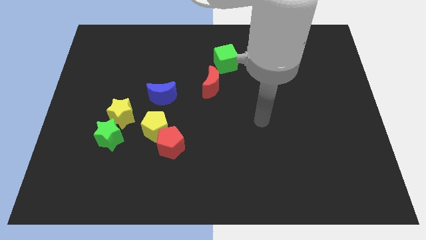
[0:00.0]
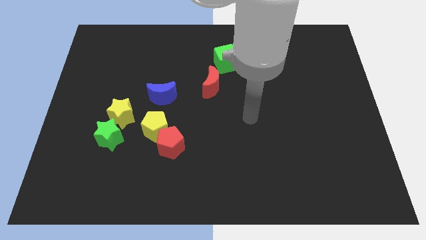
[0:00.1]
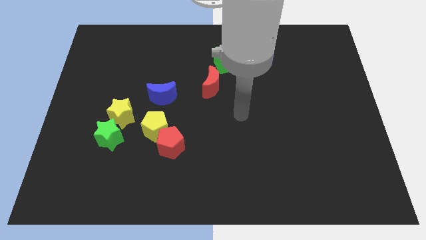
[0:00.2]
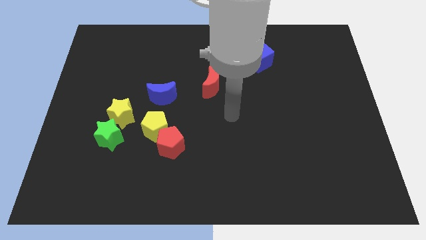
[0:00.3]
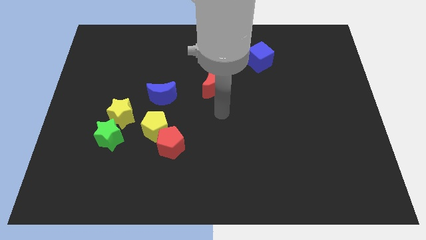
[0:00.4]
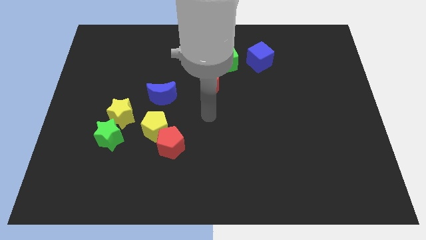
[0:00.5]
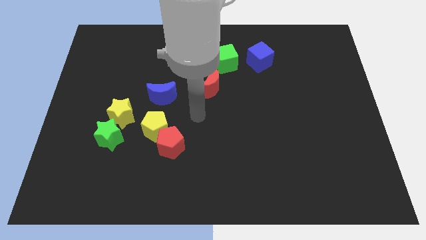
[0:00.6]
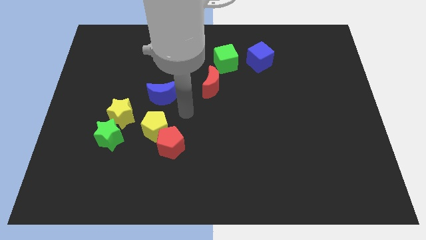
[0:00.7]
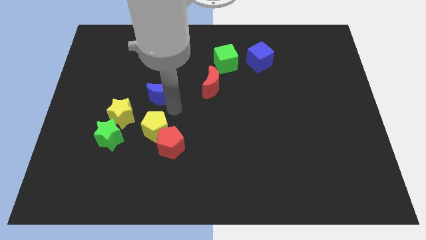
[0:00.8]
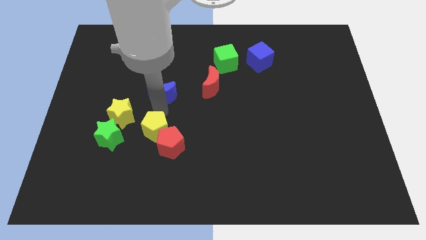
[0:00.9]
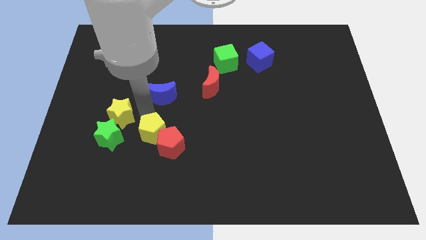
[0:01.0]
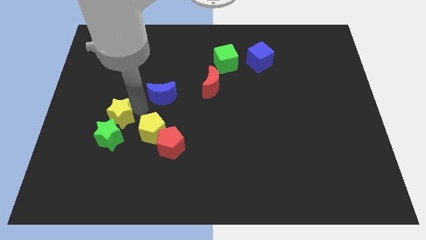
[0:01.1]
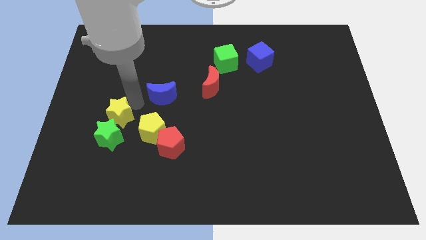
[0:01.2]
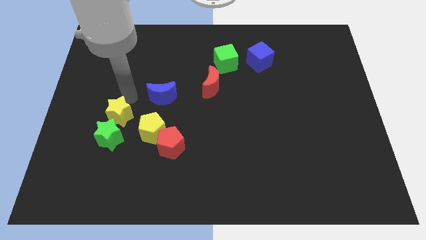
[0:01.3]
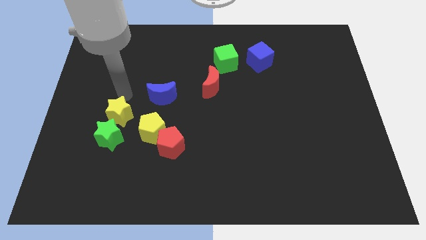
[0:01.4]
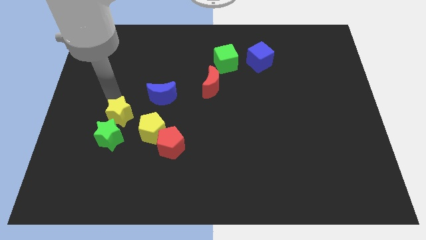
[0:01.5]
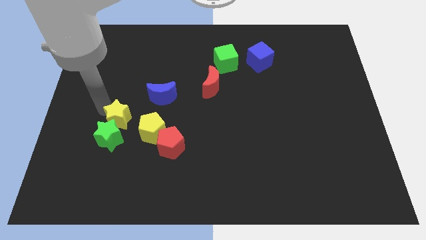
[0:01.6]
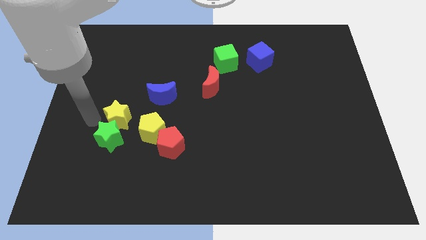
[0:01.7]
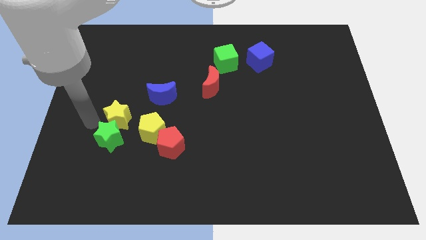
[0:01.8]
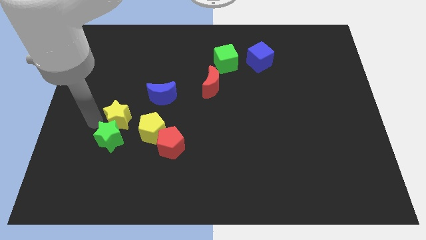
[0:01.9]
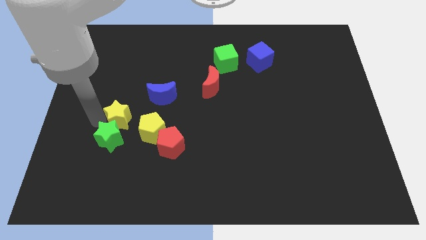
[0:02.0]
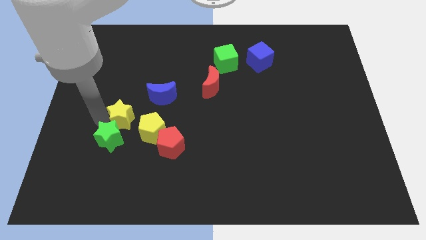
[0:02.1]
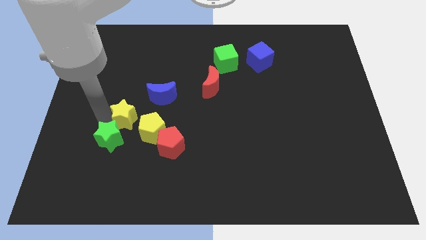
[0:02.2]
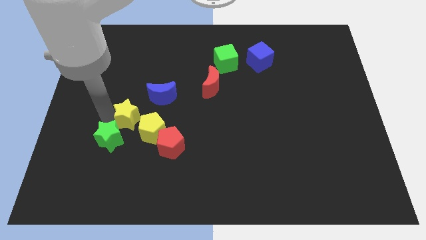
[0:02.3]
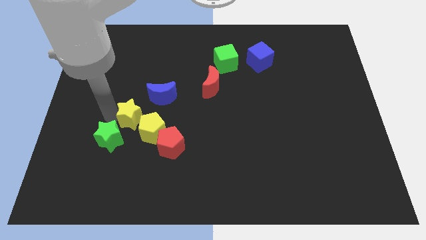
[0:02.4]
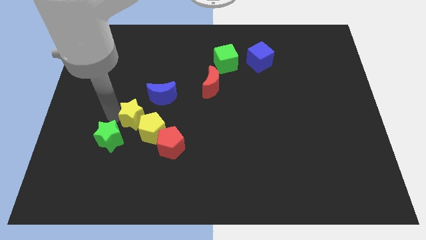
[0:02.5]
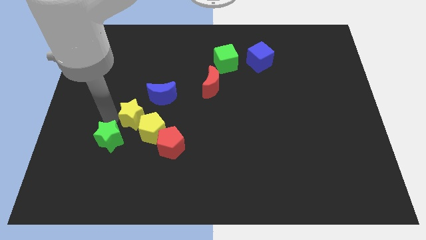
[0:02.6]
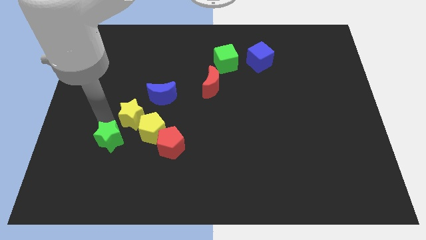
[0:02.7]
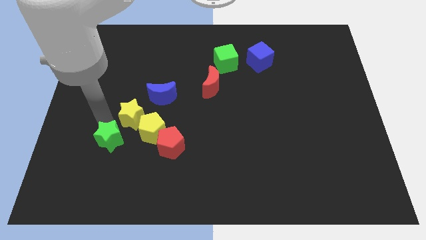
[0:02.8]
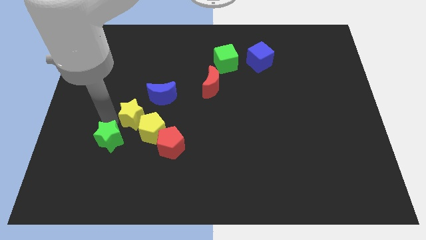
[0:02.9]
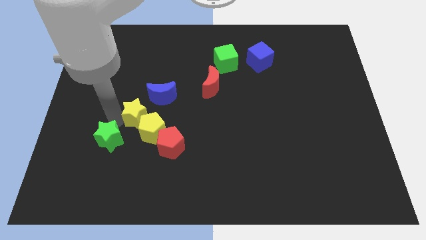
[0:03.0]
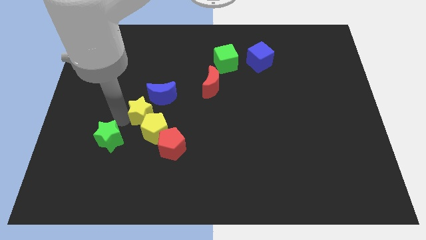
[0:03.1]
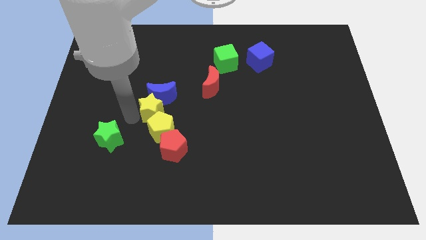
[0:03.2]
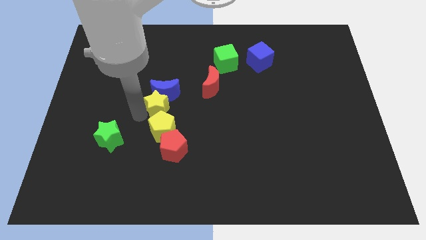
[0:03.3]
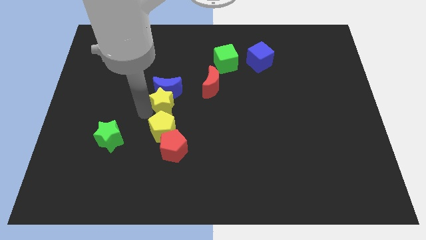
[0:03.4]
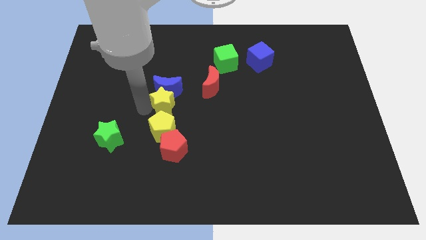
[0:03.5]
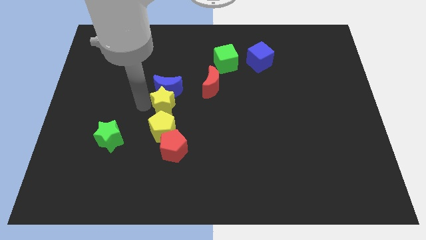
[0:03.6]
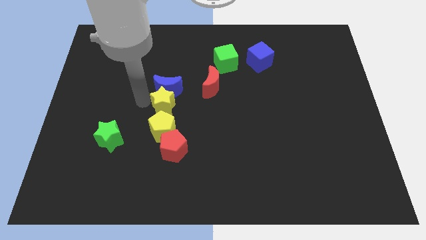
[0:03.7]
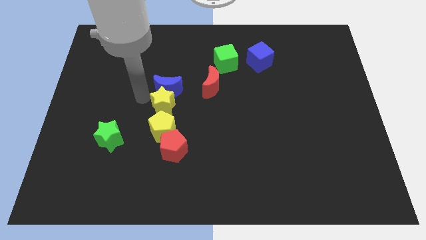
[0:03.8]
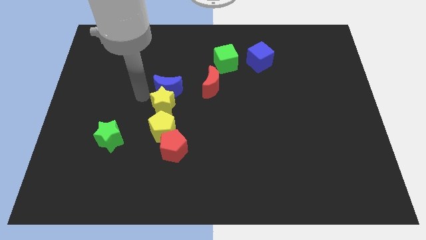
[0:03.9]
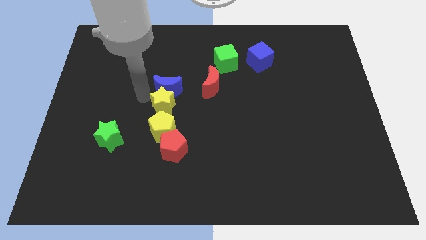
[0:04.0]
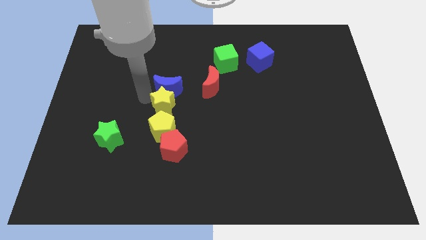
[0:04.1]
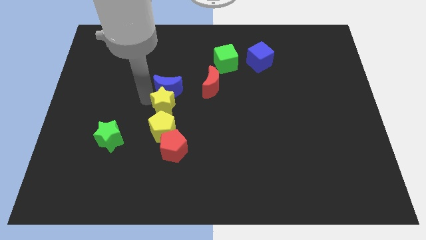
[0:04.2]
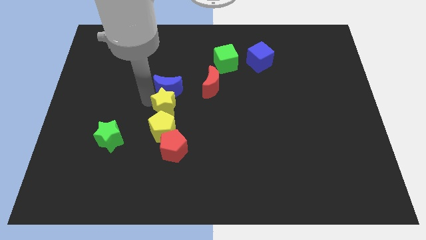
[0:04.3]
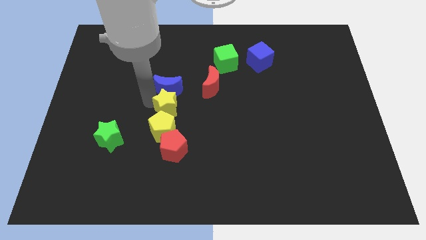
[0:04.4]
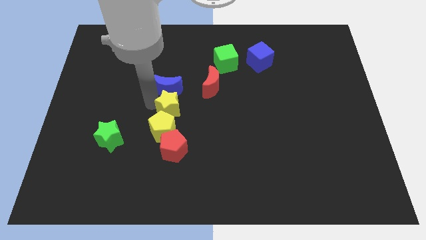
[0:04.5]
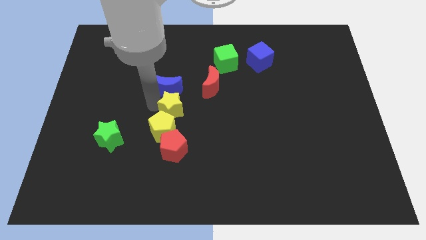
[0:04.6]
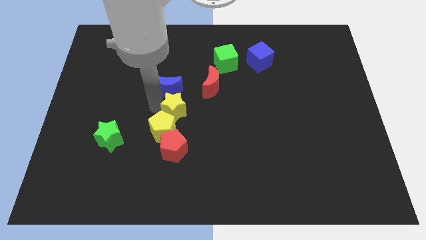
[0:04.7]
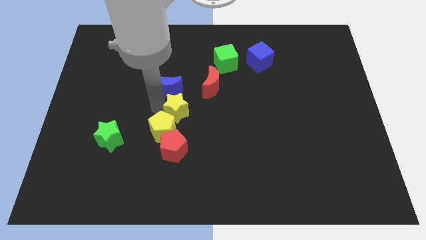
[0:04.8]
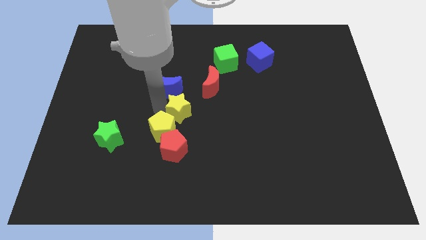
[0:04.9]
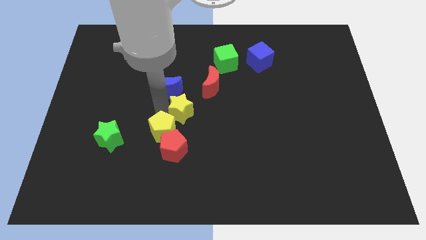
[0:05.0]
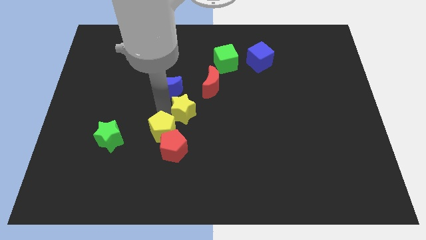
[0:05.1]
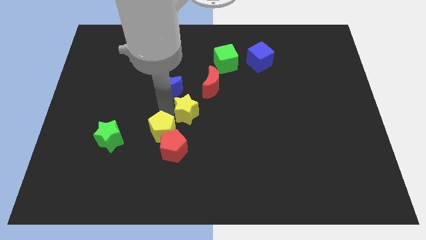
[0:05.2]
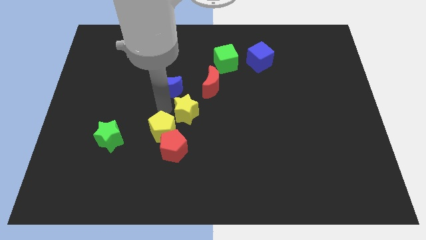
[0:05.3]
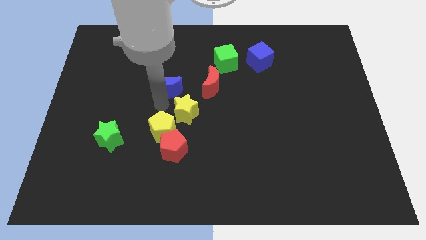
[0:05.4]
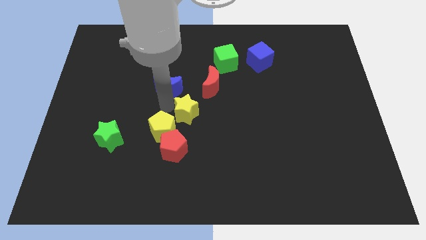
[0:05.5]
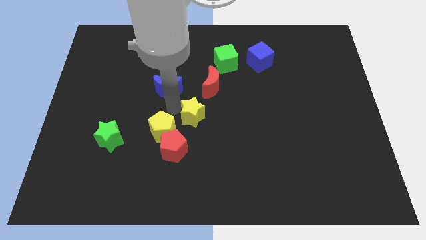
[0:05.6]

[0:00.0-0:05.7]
push the yellow star to the bottom of the red moon

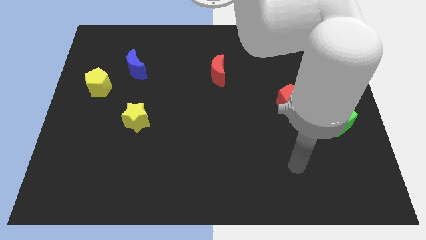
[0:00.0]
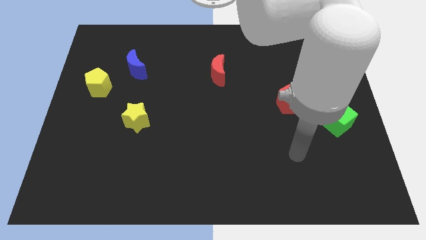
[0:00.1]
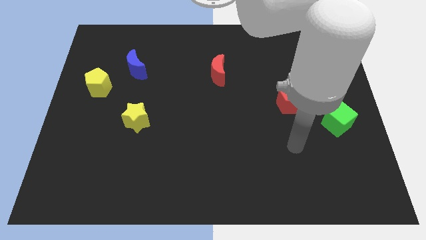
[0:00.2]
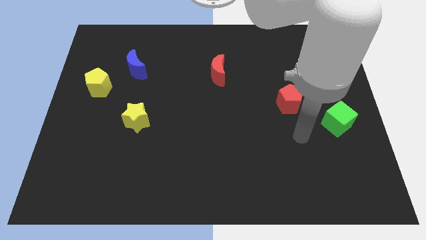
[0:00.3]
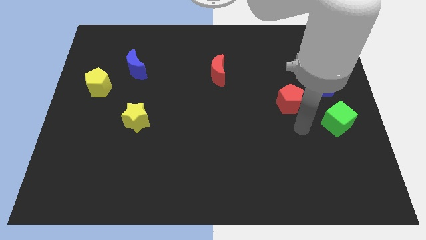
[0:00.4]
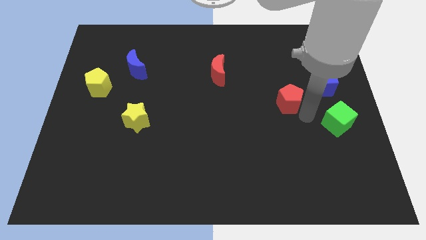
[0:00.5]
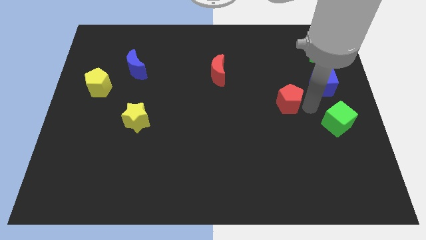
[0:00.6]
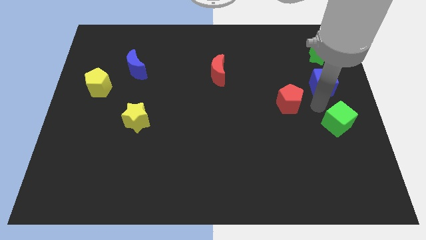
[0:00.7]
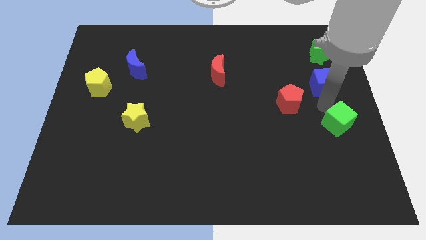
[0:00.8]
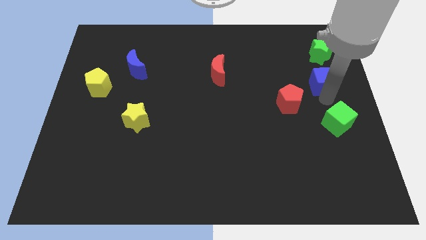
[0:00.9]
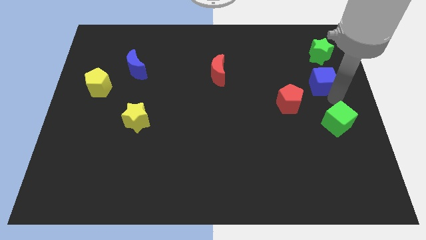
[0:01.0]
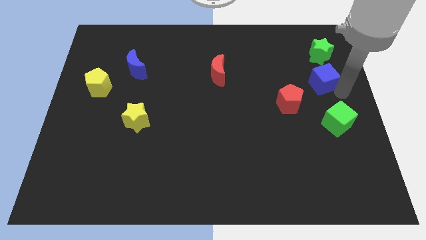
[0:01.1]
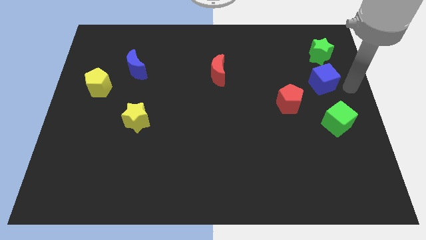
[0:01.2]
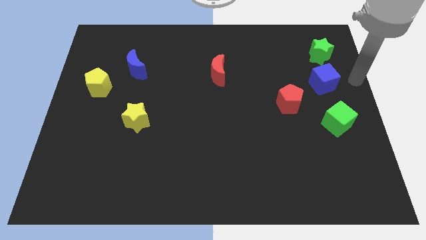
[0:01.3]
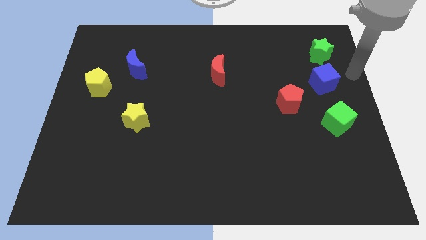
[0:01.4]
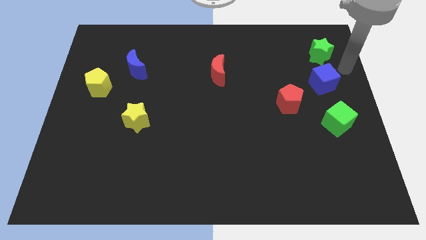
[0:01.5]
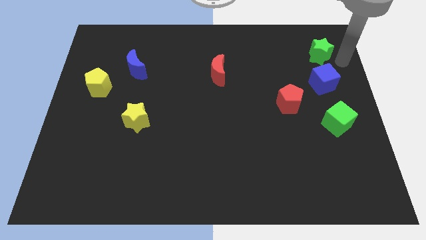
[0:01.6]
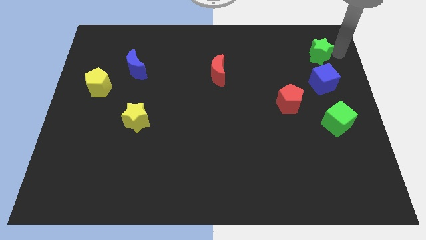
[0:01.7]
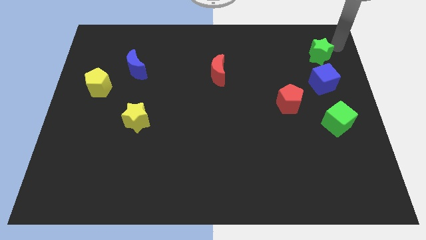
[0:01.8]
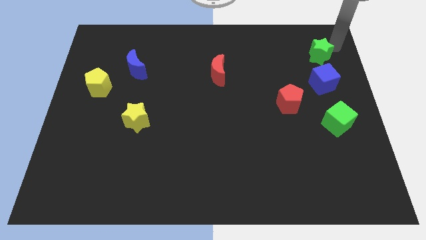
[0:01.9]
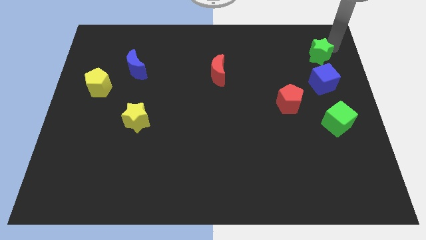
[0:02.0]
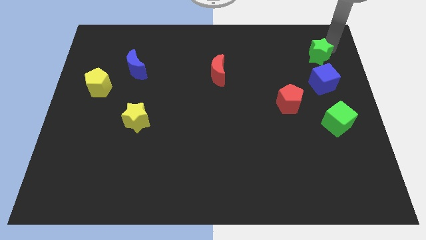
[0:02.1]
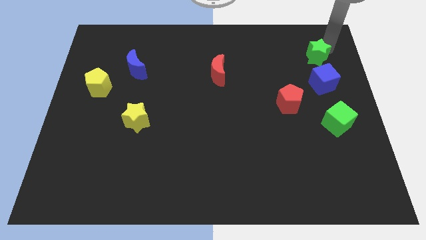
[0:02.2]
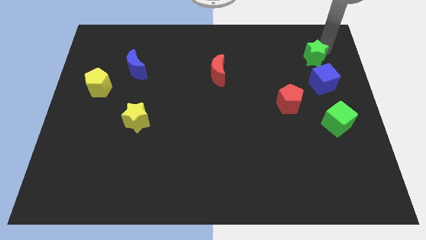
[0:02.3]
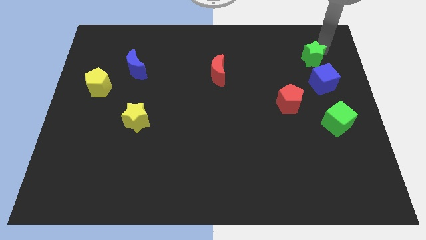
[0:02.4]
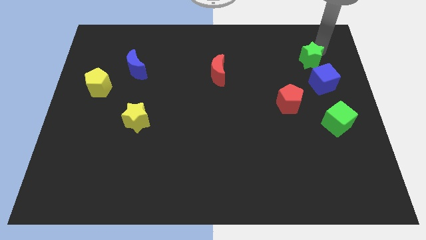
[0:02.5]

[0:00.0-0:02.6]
put the green star diagonally up and to the left of the blue cube
